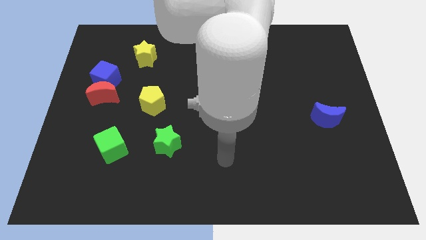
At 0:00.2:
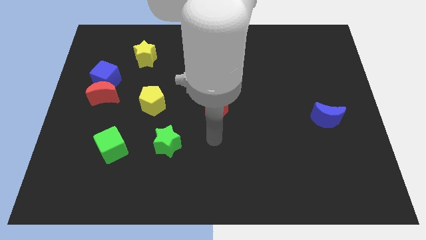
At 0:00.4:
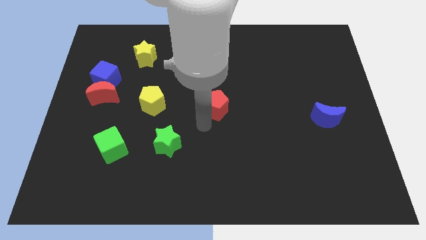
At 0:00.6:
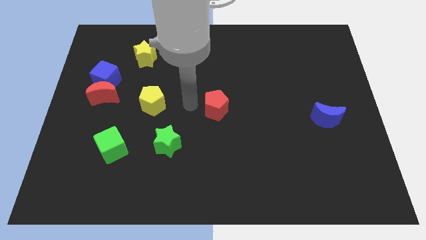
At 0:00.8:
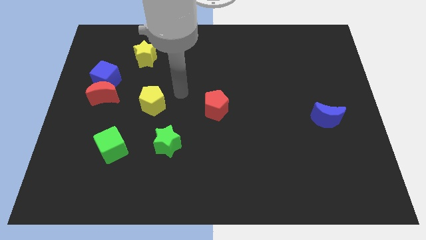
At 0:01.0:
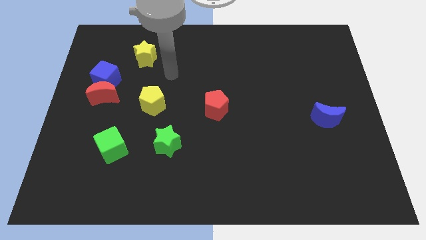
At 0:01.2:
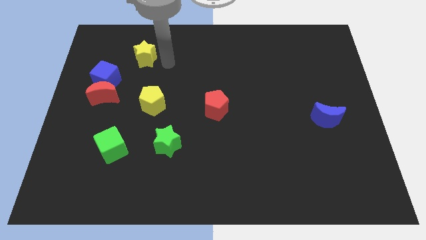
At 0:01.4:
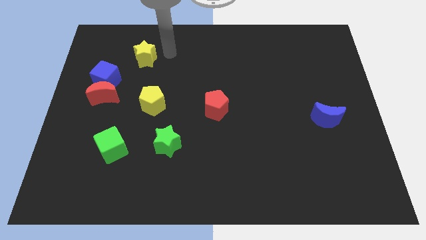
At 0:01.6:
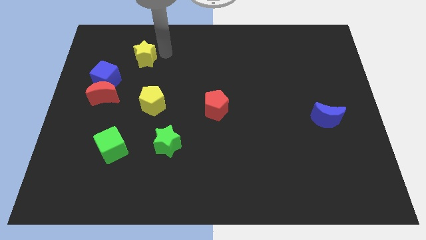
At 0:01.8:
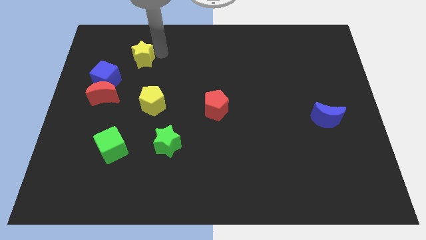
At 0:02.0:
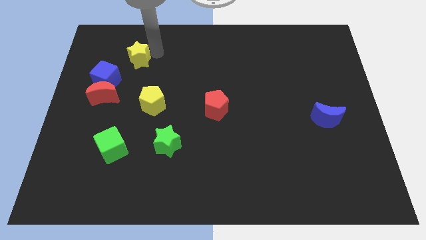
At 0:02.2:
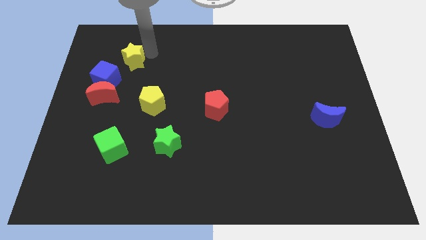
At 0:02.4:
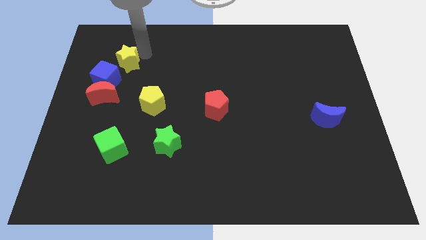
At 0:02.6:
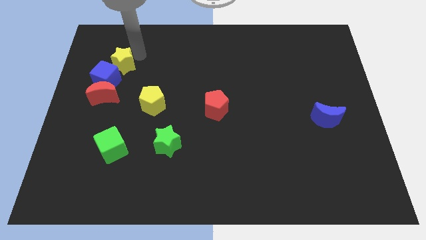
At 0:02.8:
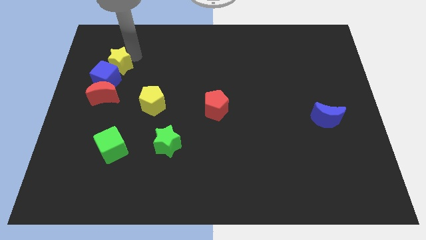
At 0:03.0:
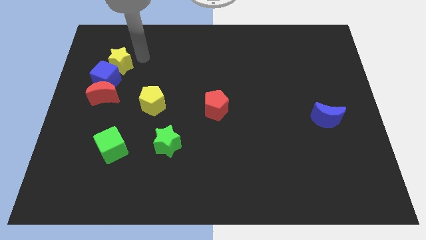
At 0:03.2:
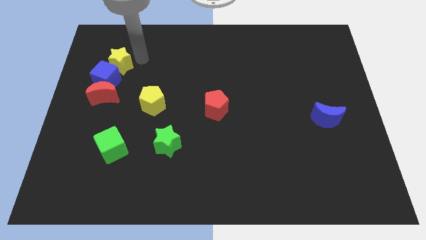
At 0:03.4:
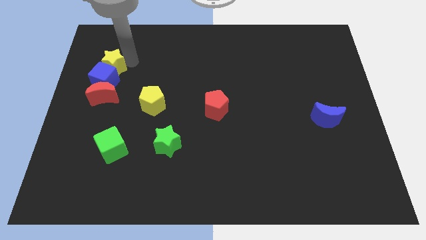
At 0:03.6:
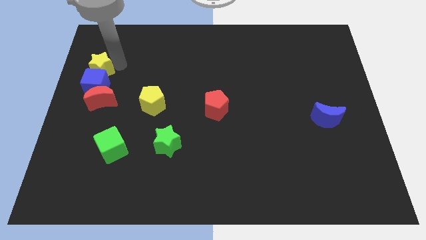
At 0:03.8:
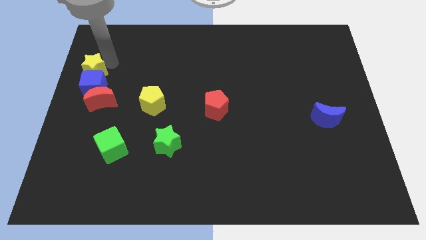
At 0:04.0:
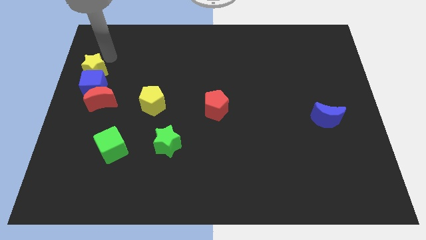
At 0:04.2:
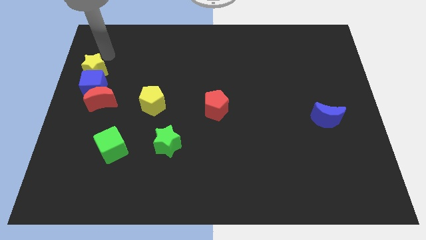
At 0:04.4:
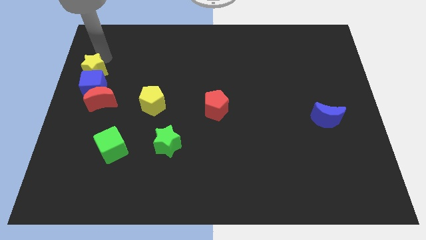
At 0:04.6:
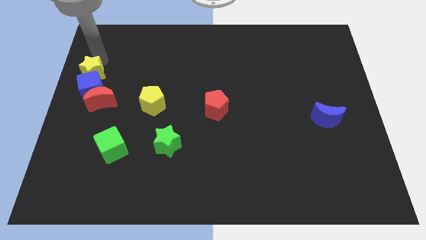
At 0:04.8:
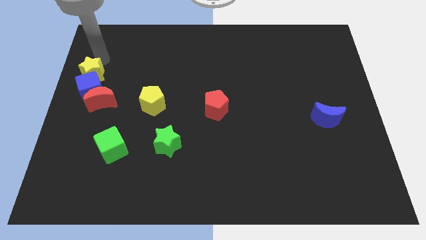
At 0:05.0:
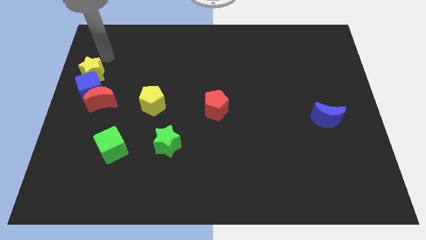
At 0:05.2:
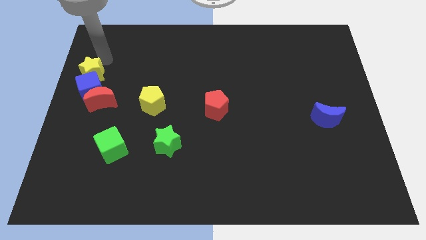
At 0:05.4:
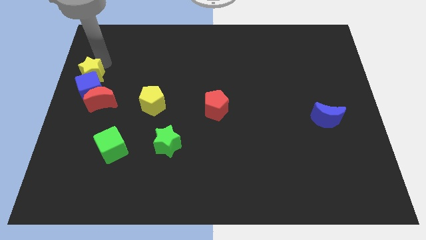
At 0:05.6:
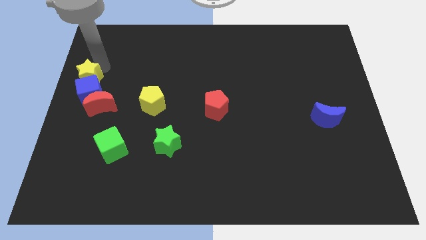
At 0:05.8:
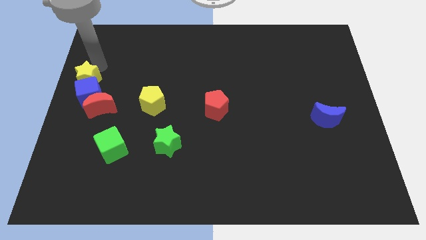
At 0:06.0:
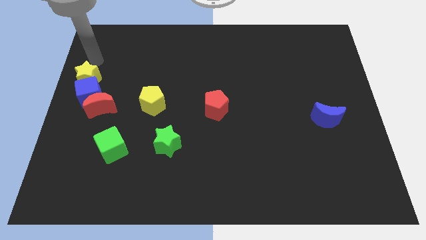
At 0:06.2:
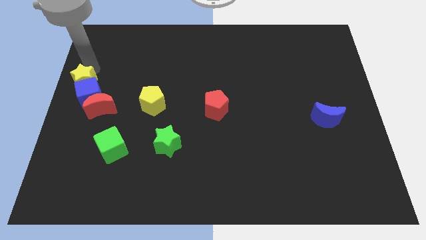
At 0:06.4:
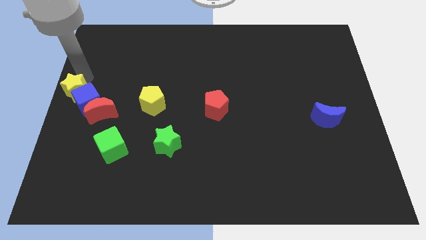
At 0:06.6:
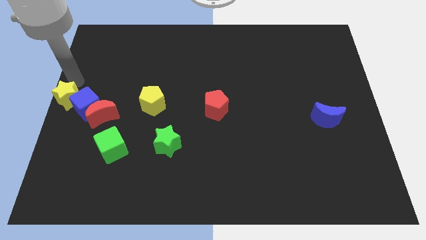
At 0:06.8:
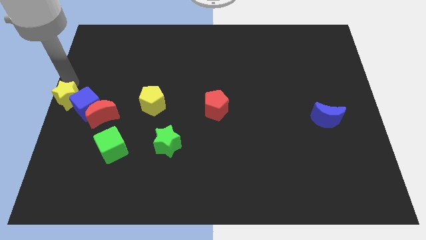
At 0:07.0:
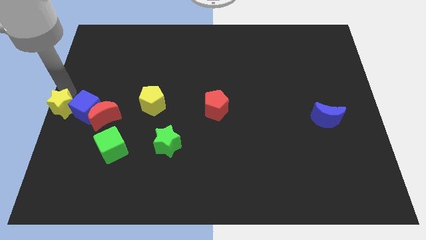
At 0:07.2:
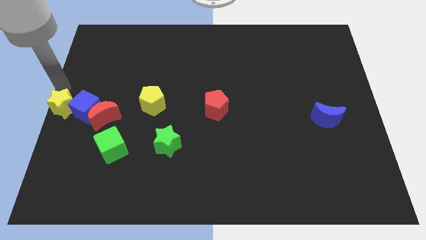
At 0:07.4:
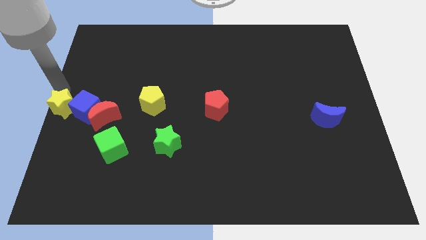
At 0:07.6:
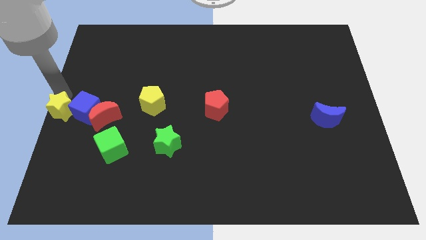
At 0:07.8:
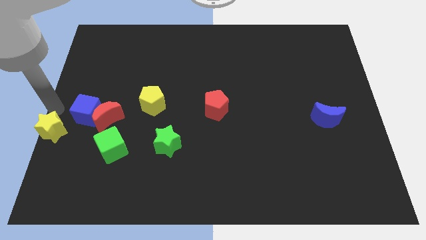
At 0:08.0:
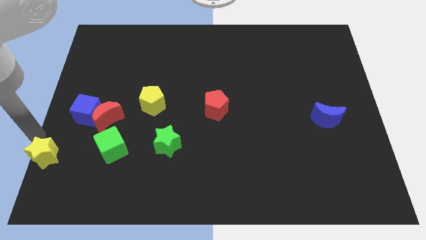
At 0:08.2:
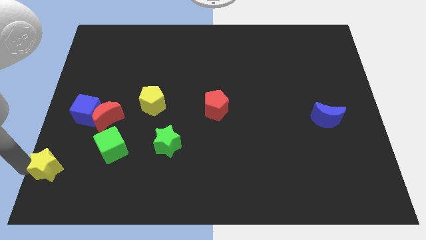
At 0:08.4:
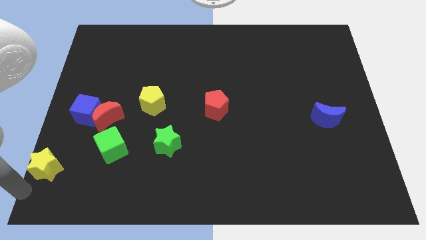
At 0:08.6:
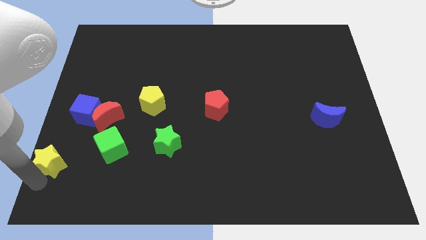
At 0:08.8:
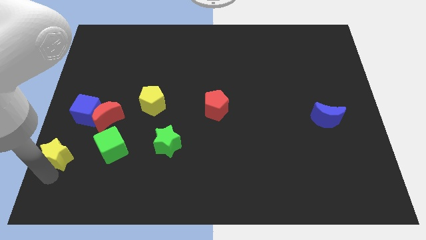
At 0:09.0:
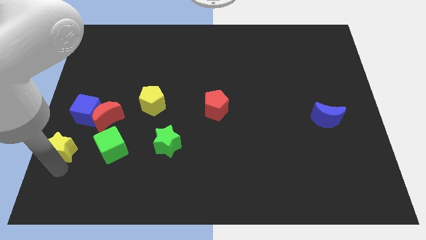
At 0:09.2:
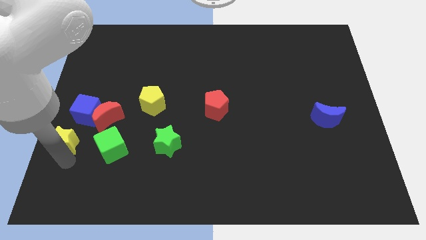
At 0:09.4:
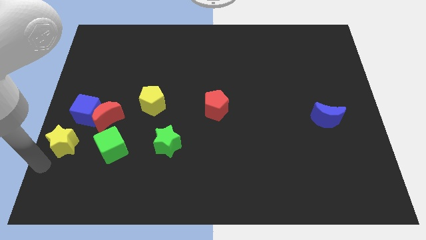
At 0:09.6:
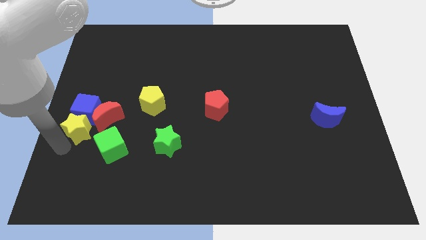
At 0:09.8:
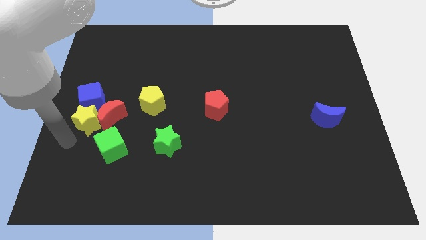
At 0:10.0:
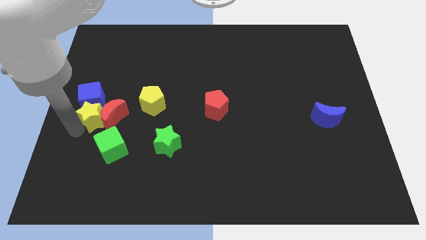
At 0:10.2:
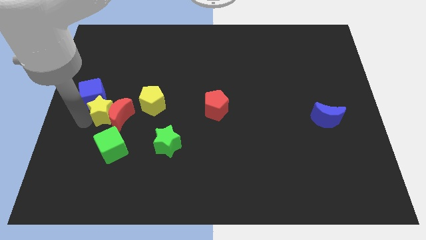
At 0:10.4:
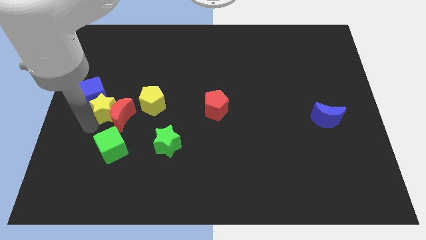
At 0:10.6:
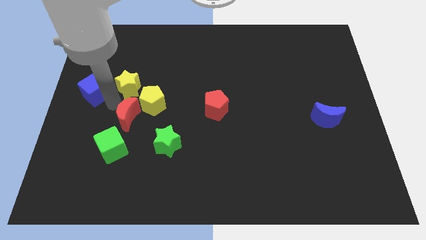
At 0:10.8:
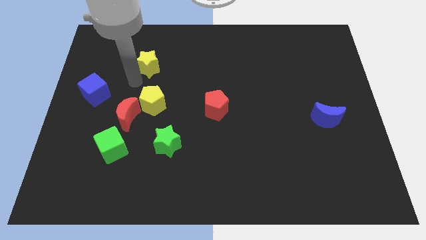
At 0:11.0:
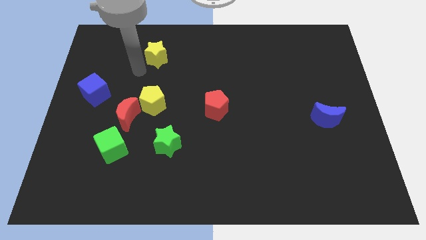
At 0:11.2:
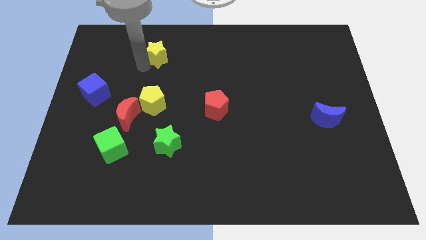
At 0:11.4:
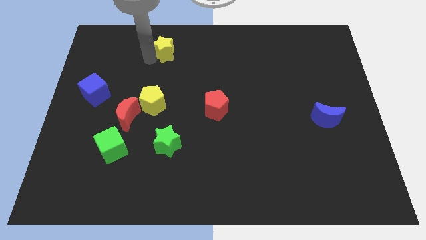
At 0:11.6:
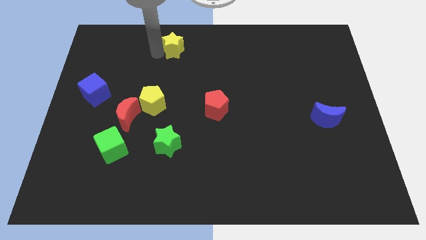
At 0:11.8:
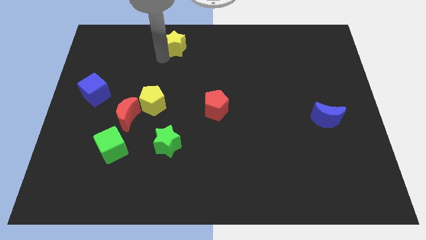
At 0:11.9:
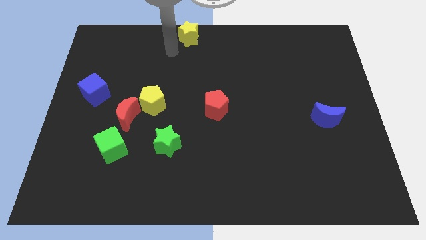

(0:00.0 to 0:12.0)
move the yellow star to the top side
